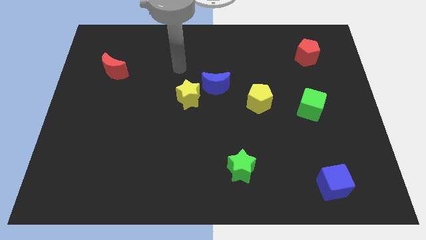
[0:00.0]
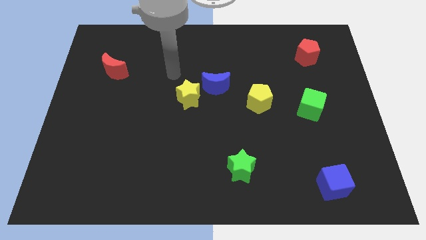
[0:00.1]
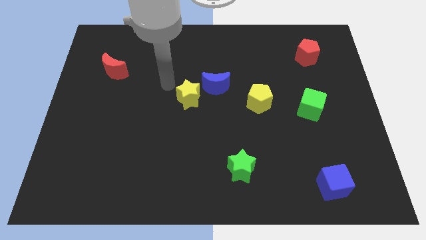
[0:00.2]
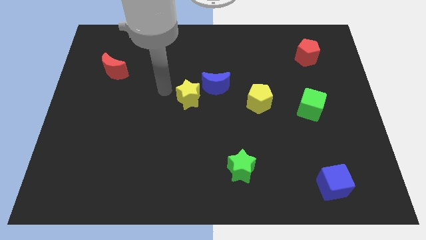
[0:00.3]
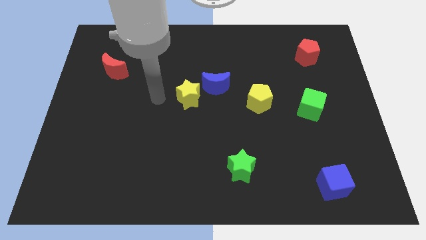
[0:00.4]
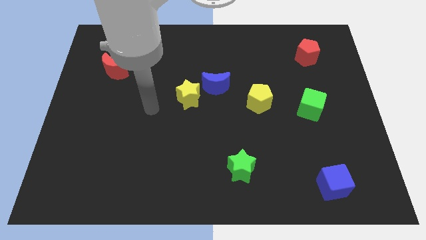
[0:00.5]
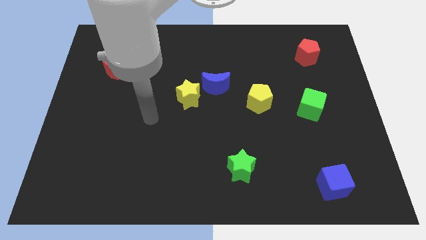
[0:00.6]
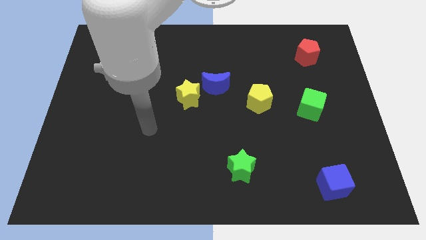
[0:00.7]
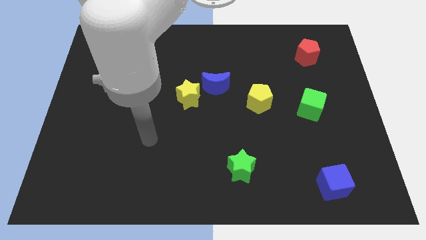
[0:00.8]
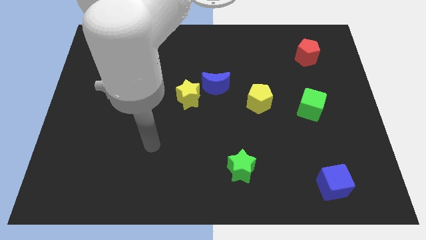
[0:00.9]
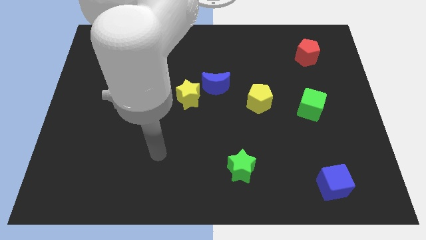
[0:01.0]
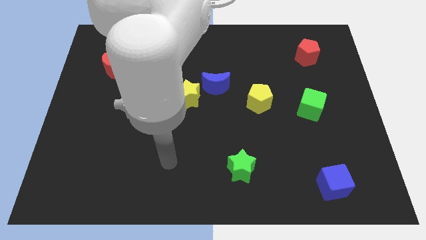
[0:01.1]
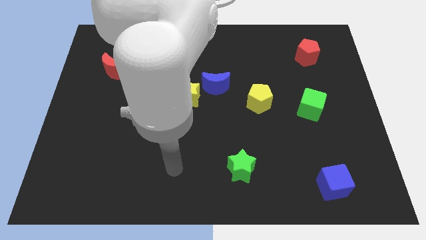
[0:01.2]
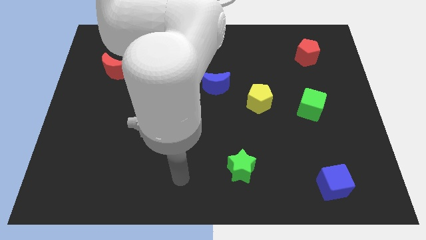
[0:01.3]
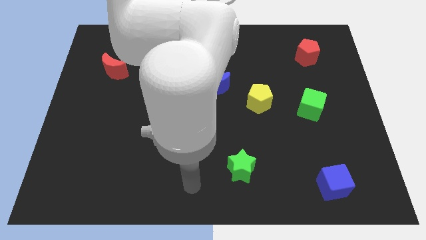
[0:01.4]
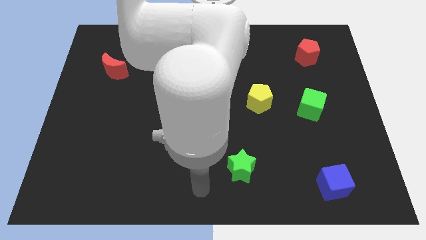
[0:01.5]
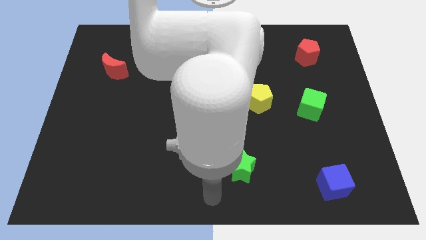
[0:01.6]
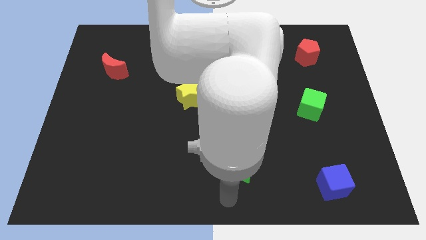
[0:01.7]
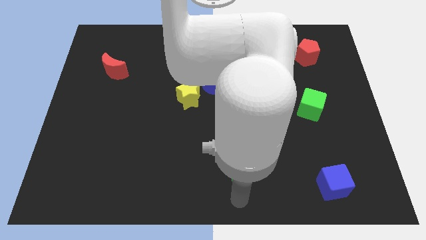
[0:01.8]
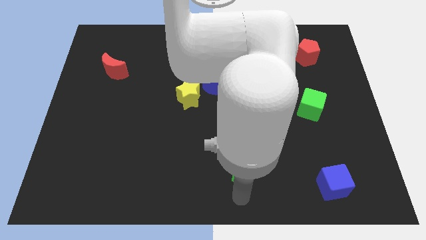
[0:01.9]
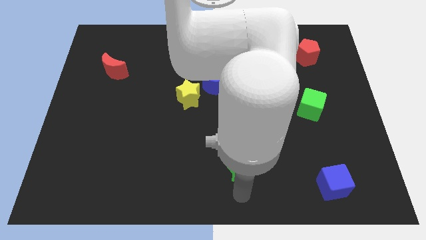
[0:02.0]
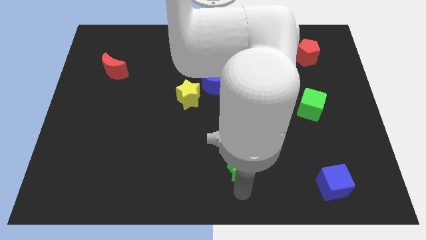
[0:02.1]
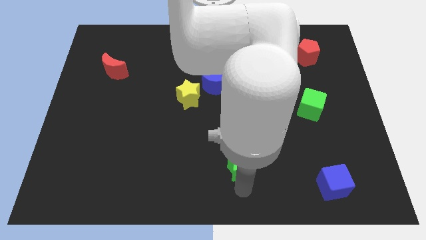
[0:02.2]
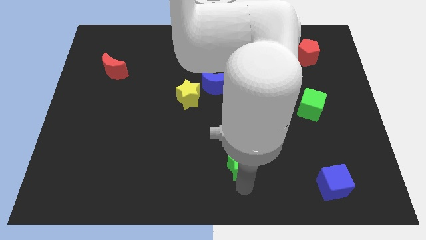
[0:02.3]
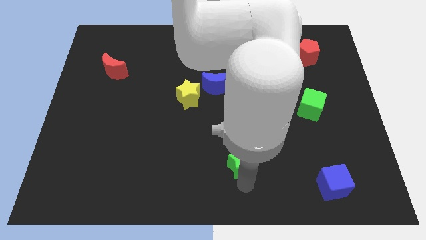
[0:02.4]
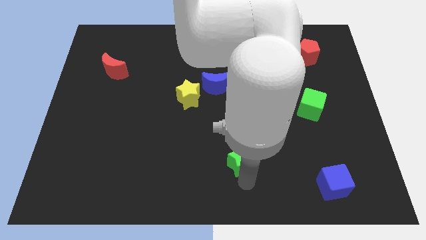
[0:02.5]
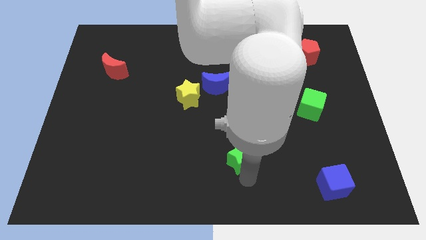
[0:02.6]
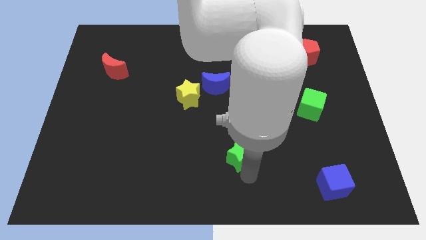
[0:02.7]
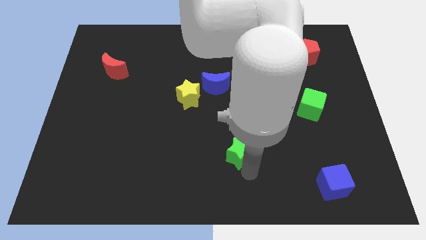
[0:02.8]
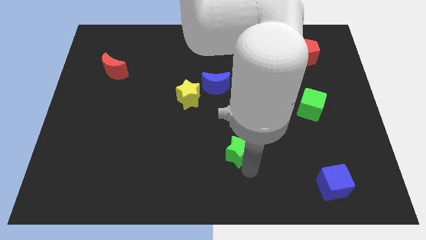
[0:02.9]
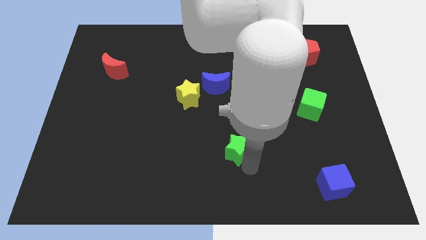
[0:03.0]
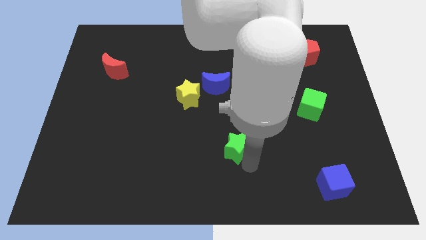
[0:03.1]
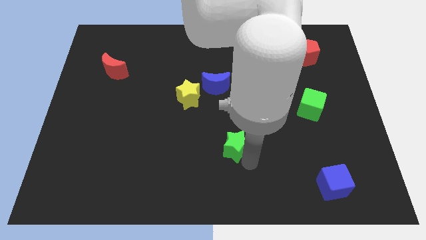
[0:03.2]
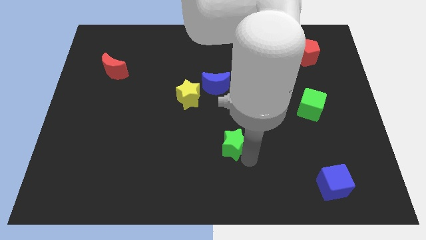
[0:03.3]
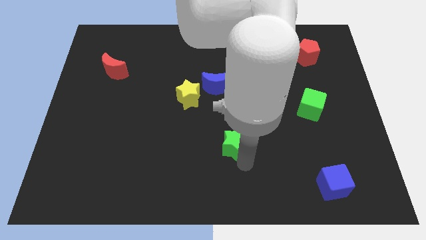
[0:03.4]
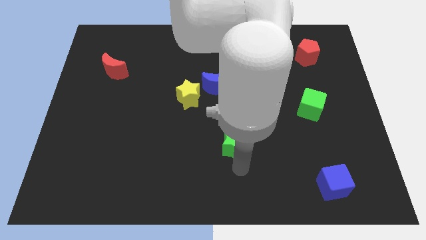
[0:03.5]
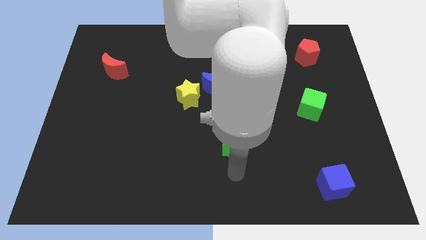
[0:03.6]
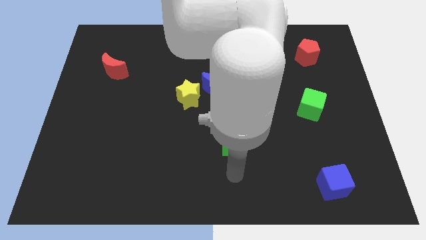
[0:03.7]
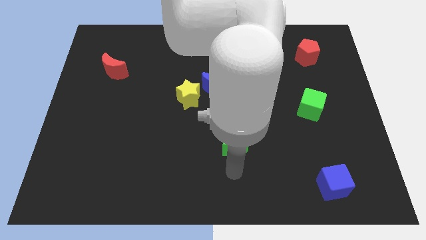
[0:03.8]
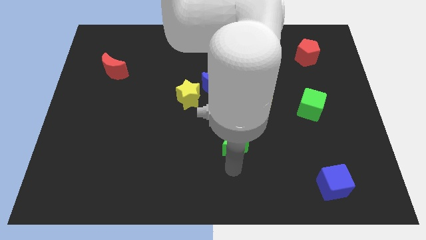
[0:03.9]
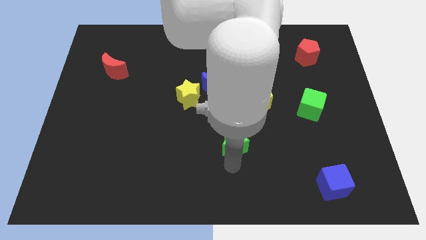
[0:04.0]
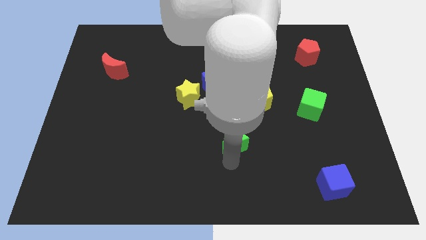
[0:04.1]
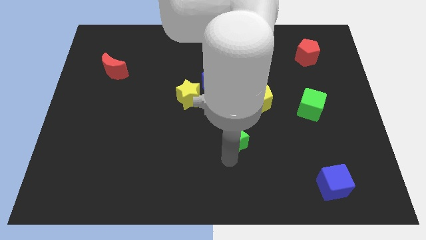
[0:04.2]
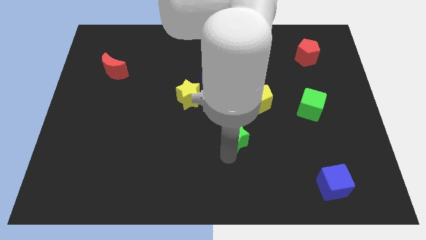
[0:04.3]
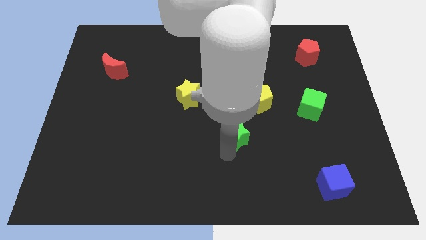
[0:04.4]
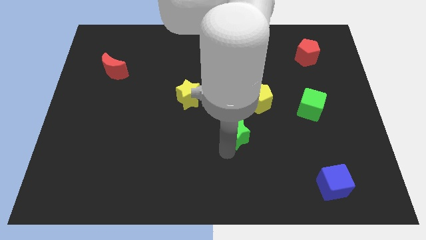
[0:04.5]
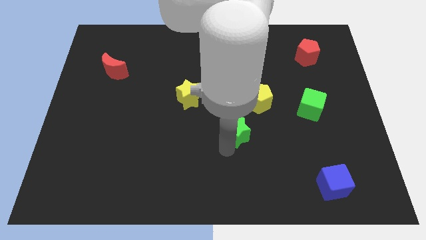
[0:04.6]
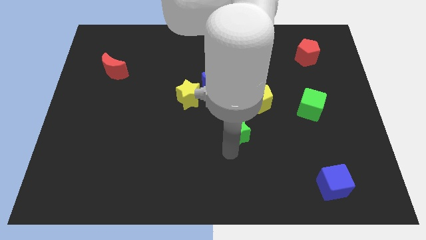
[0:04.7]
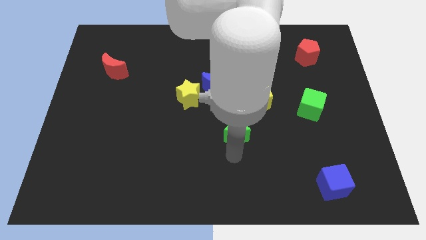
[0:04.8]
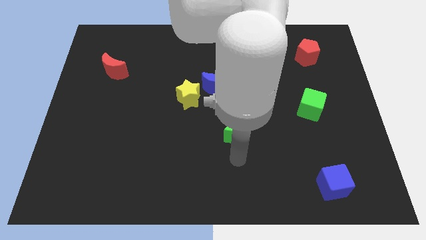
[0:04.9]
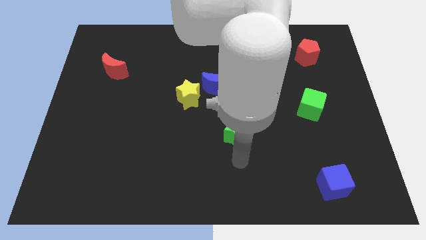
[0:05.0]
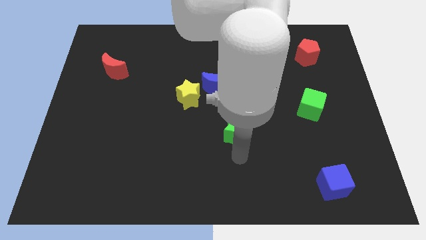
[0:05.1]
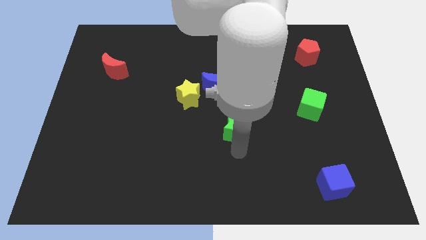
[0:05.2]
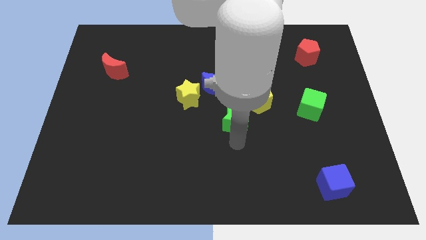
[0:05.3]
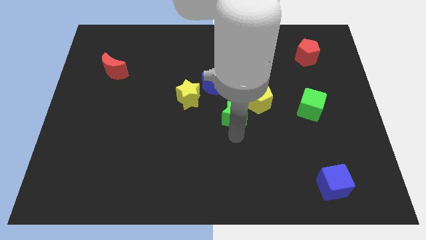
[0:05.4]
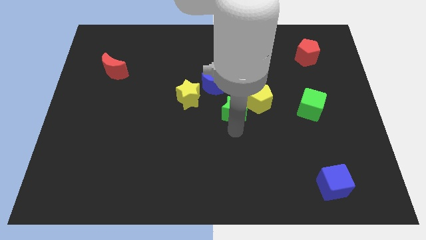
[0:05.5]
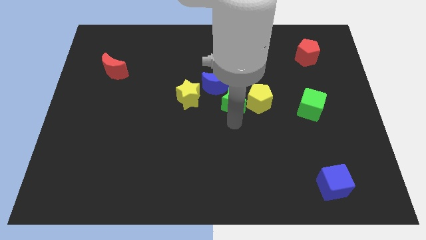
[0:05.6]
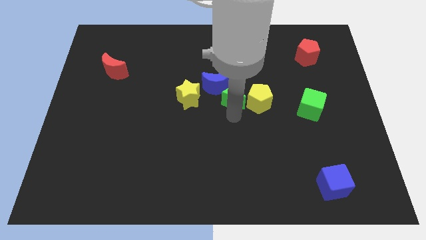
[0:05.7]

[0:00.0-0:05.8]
push the green star to the top left side of the yellow pentagon
